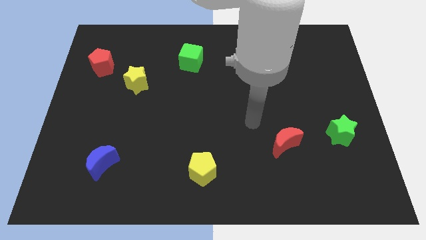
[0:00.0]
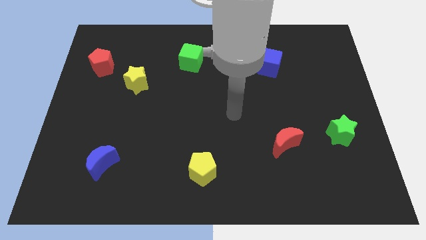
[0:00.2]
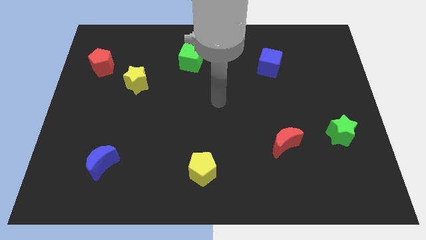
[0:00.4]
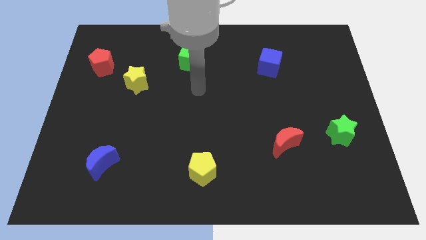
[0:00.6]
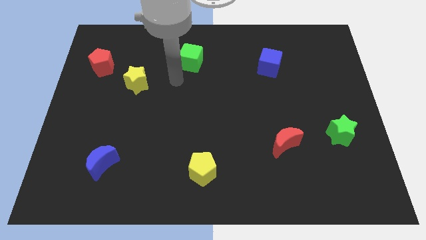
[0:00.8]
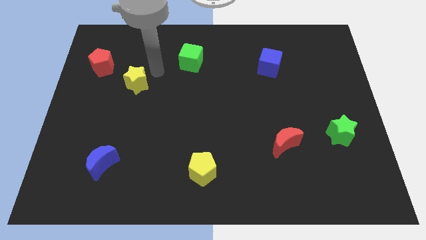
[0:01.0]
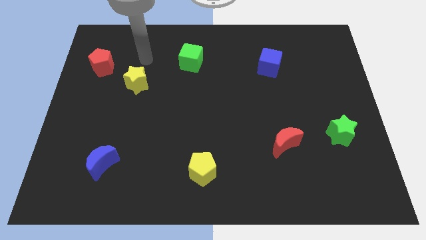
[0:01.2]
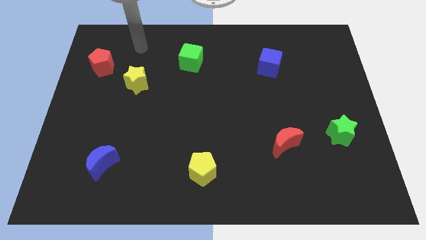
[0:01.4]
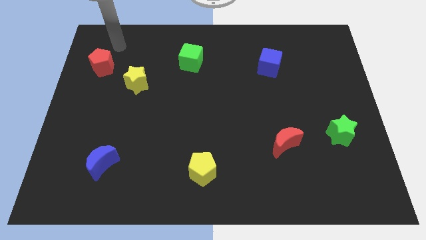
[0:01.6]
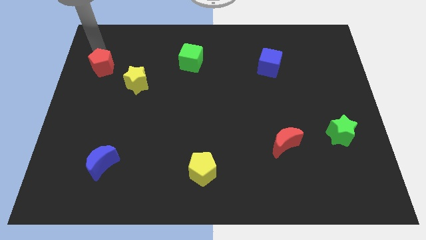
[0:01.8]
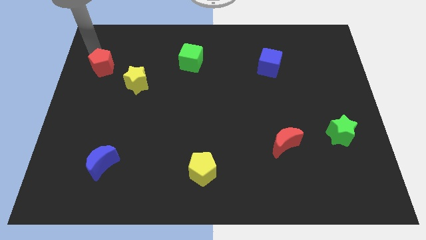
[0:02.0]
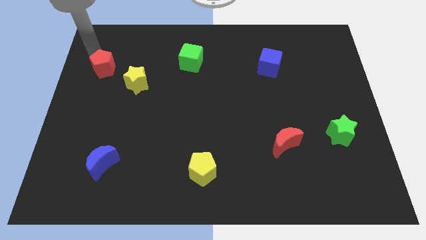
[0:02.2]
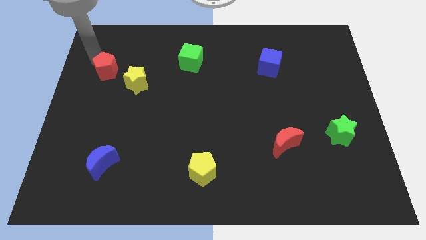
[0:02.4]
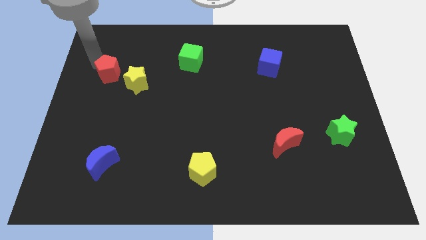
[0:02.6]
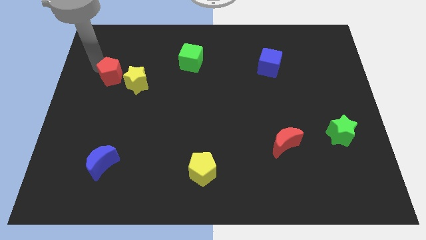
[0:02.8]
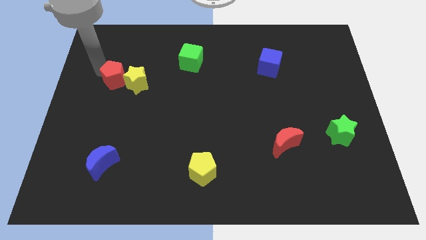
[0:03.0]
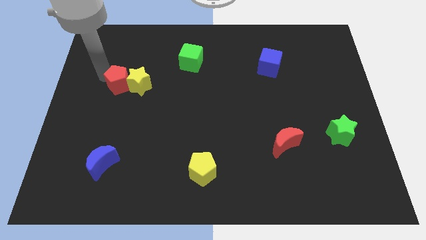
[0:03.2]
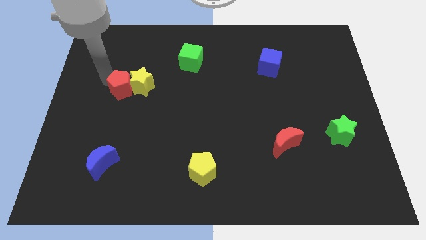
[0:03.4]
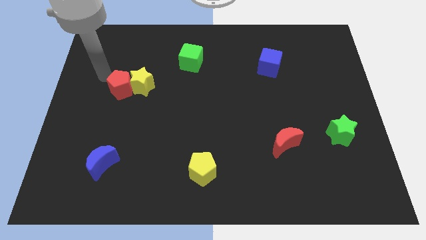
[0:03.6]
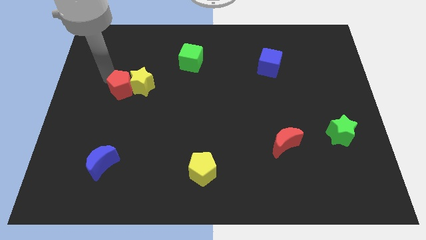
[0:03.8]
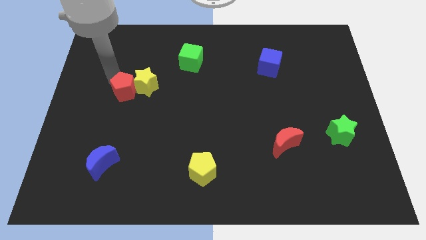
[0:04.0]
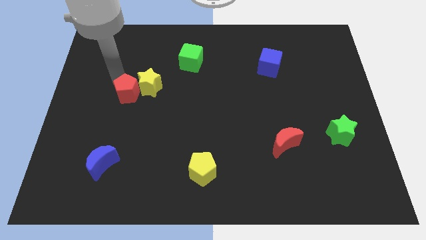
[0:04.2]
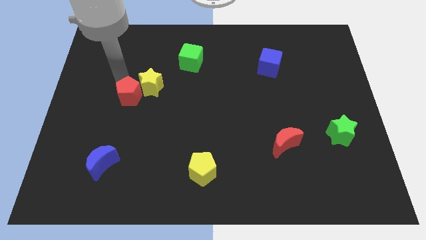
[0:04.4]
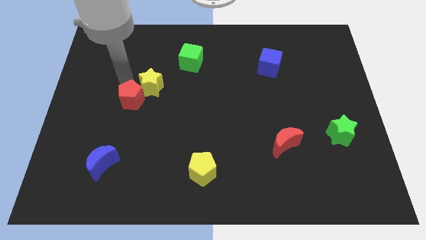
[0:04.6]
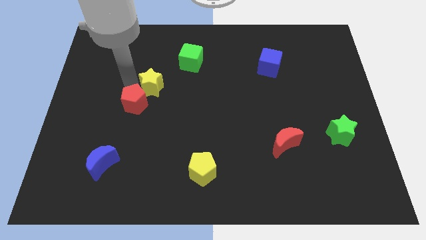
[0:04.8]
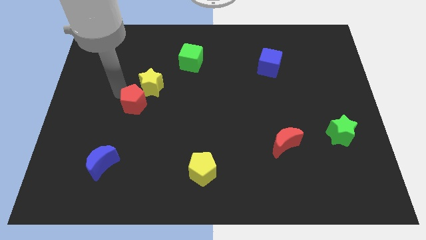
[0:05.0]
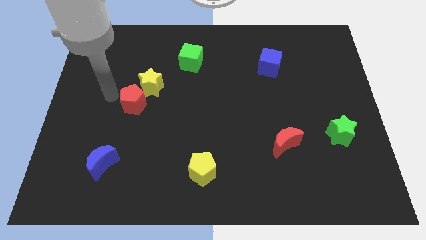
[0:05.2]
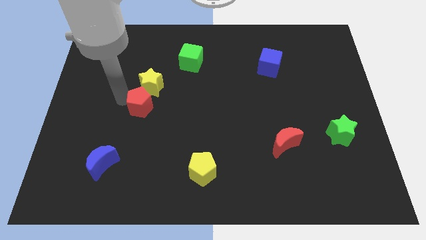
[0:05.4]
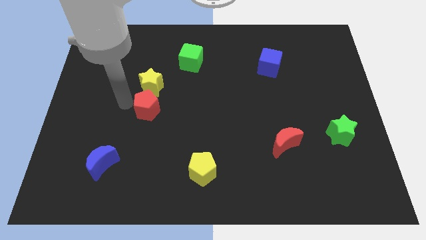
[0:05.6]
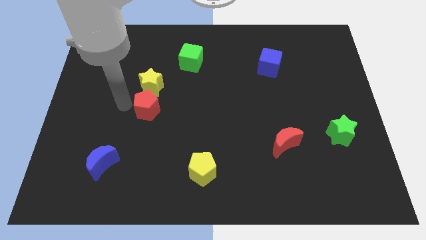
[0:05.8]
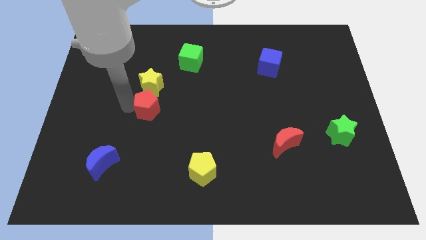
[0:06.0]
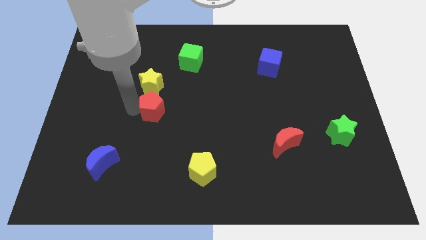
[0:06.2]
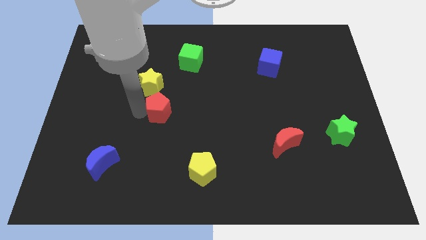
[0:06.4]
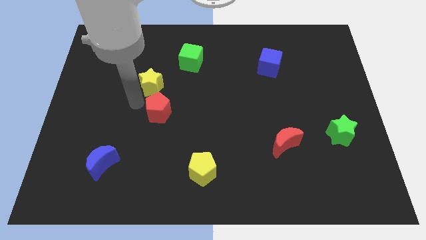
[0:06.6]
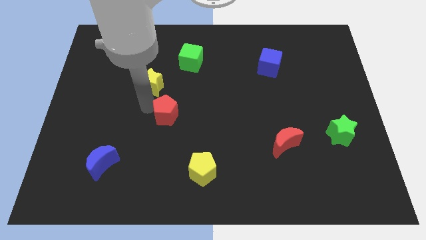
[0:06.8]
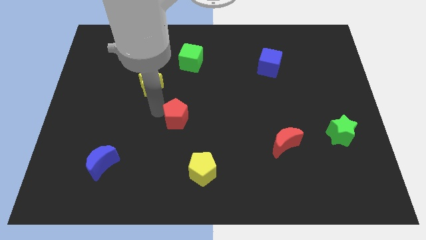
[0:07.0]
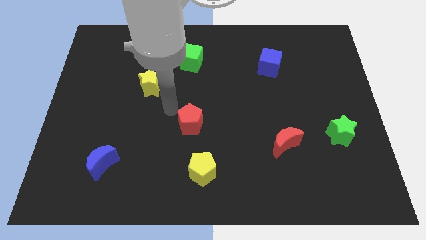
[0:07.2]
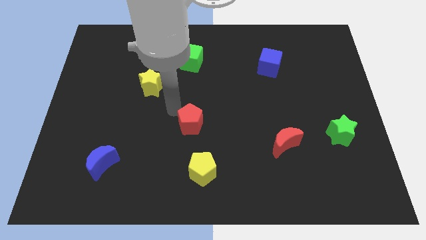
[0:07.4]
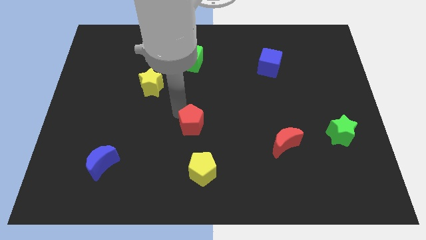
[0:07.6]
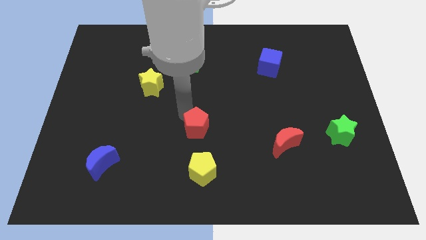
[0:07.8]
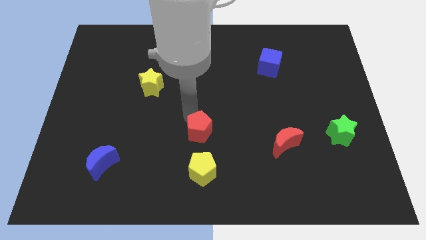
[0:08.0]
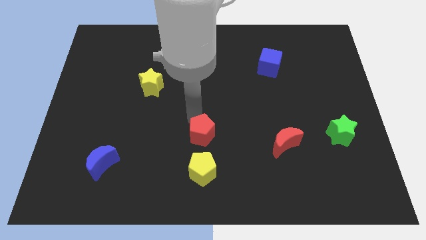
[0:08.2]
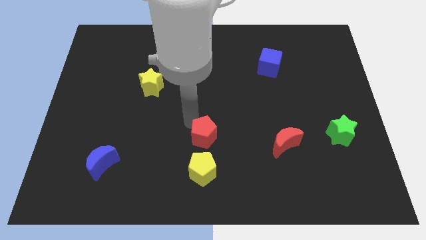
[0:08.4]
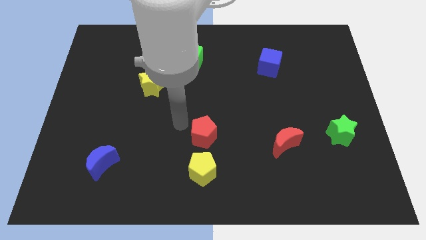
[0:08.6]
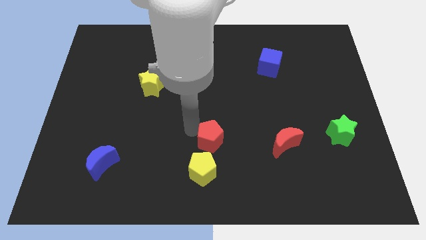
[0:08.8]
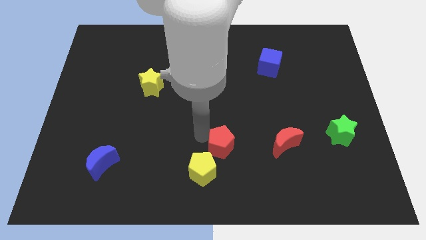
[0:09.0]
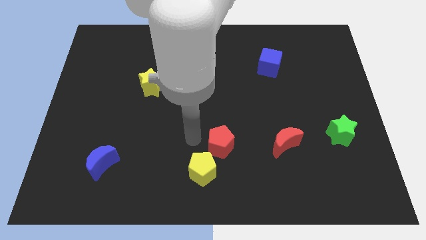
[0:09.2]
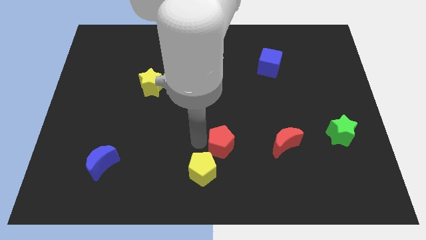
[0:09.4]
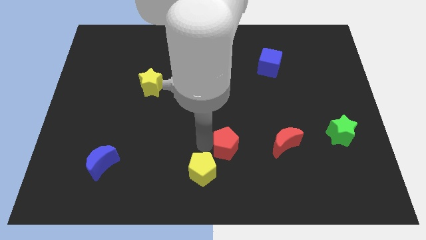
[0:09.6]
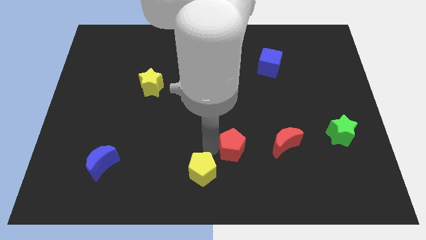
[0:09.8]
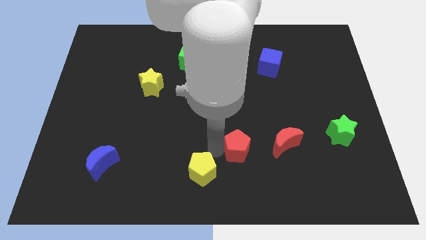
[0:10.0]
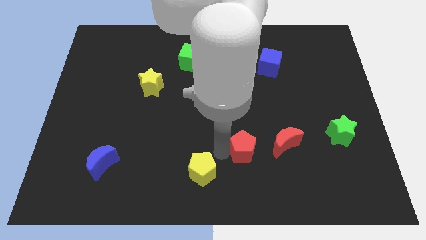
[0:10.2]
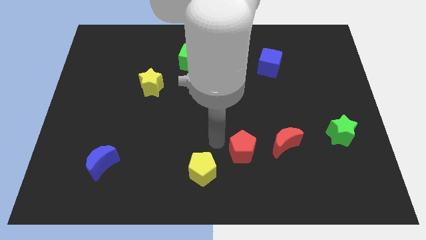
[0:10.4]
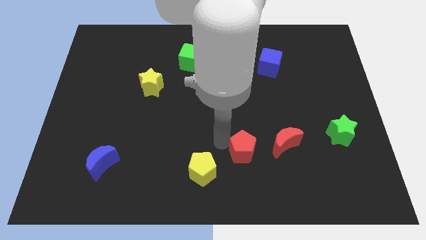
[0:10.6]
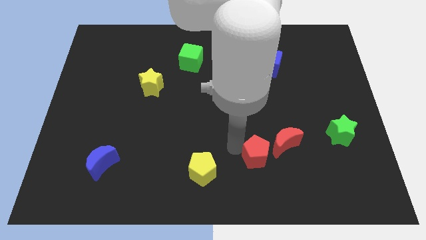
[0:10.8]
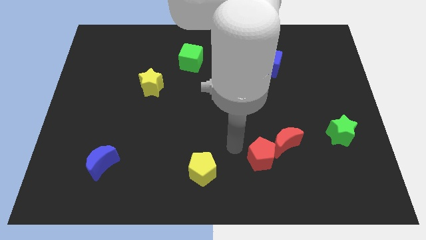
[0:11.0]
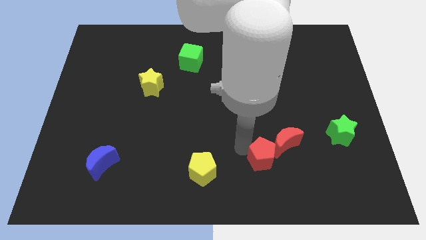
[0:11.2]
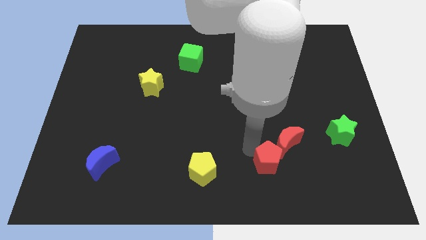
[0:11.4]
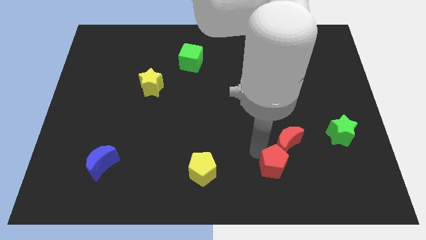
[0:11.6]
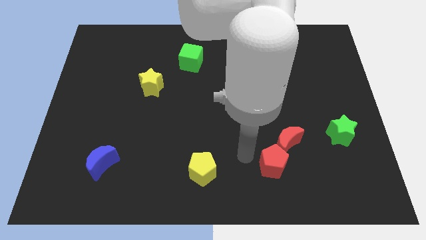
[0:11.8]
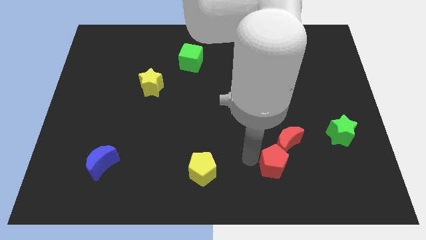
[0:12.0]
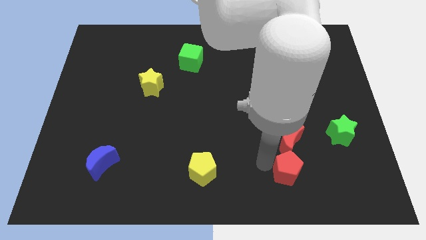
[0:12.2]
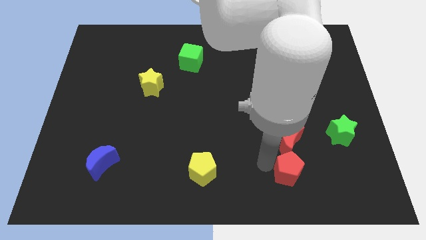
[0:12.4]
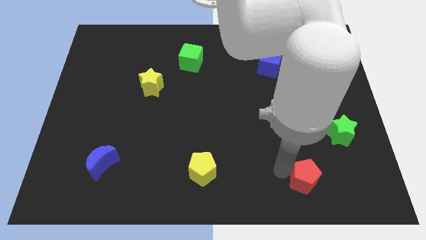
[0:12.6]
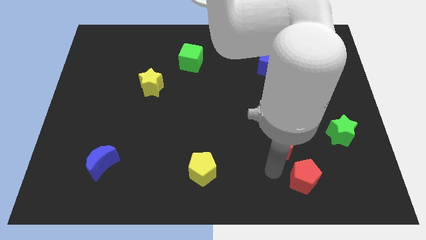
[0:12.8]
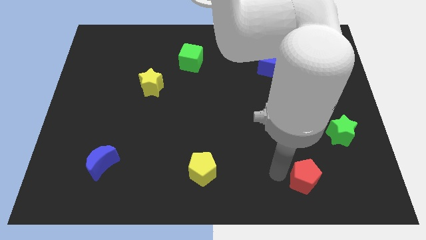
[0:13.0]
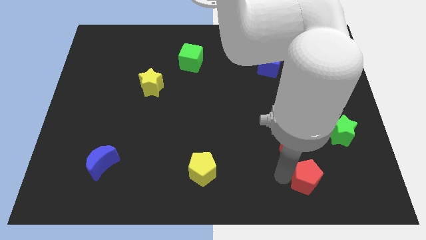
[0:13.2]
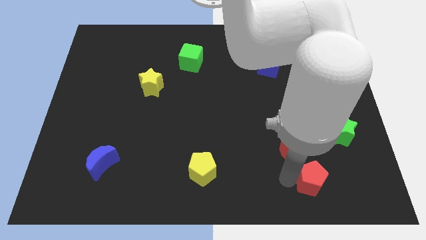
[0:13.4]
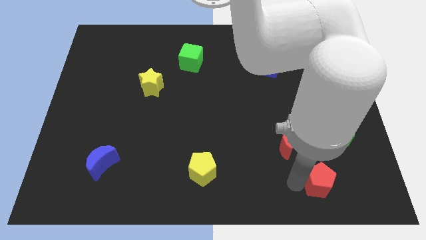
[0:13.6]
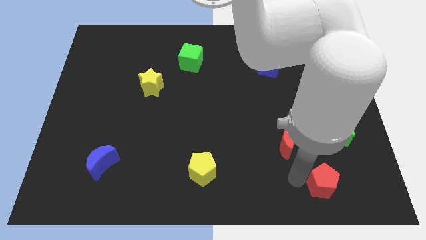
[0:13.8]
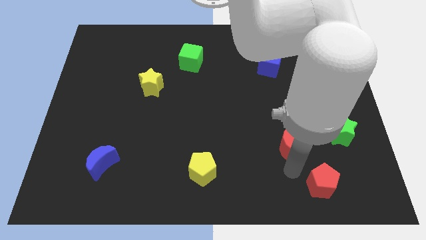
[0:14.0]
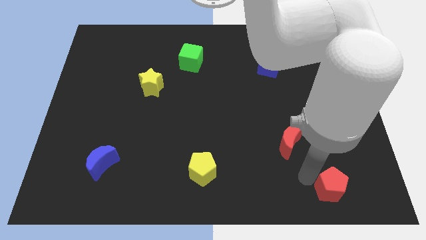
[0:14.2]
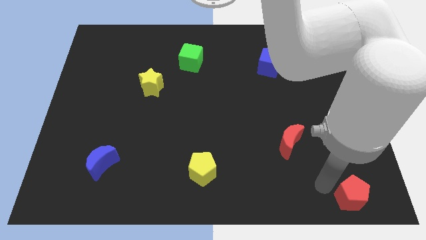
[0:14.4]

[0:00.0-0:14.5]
put the red pentagon to the bottom right corner
